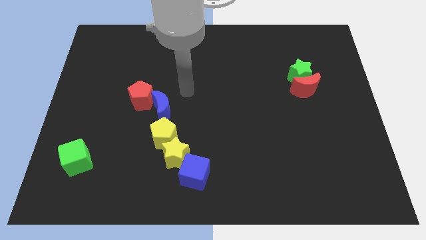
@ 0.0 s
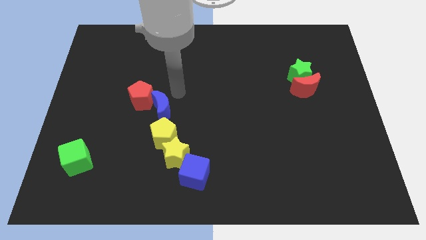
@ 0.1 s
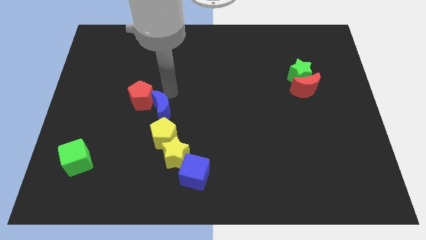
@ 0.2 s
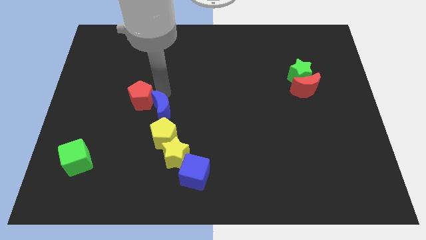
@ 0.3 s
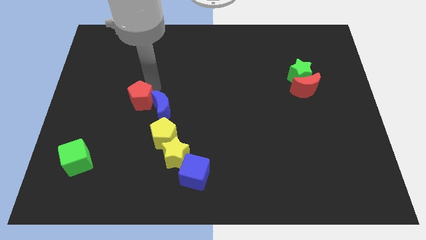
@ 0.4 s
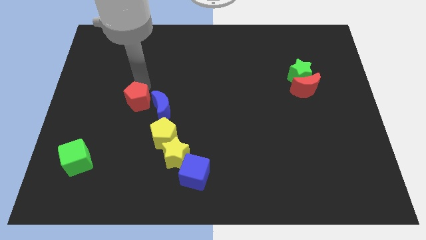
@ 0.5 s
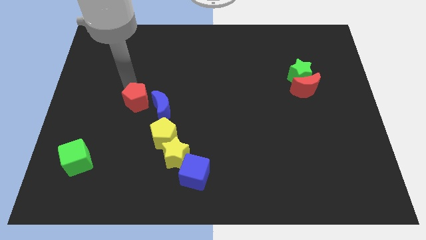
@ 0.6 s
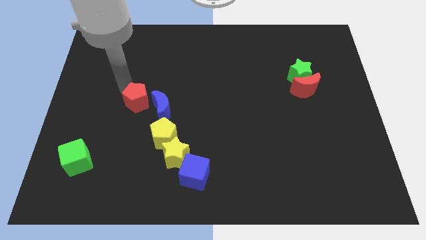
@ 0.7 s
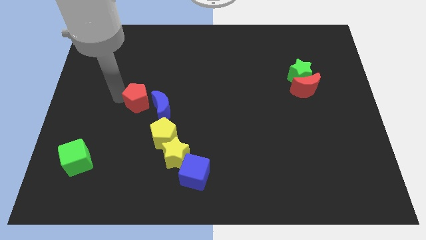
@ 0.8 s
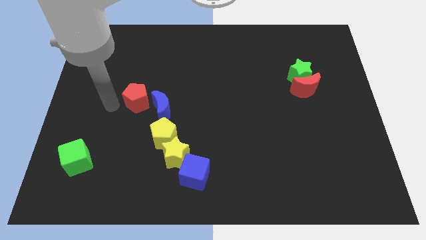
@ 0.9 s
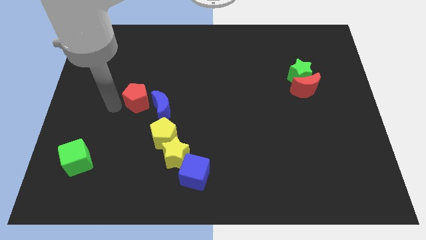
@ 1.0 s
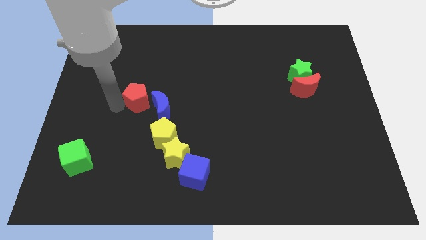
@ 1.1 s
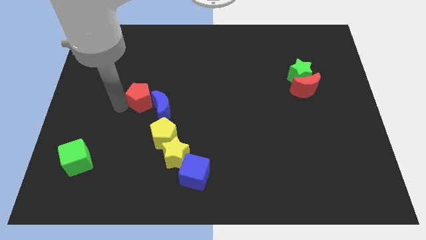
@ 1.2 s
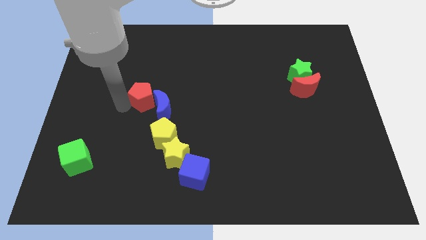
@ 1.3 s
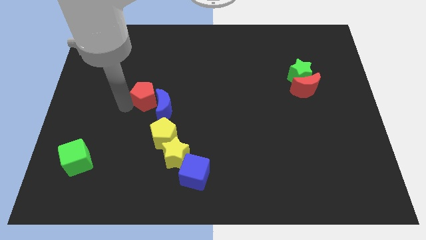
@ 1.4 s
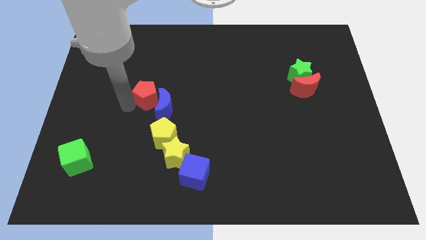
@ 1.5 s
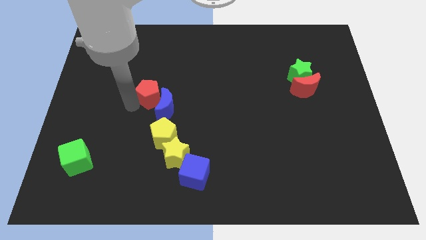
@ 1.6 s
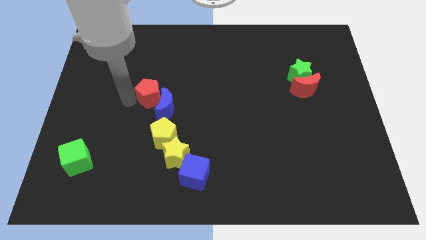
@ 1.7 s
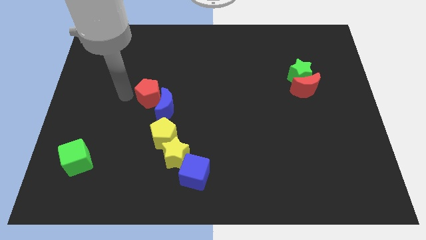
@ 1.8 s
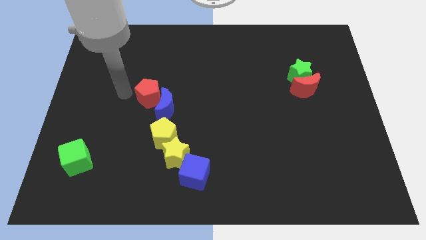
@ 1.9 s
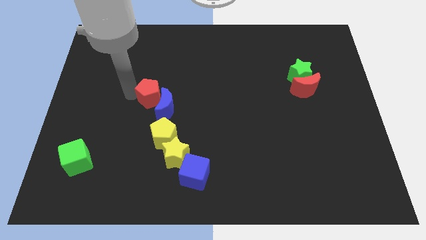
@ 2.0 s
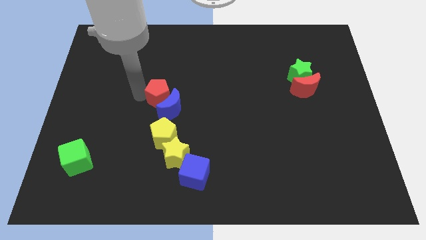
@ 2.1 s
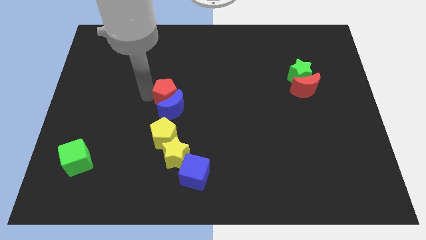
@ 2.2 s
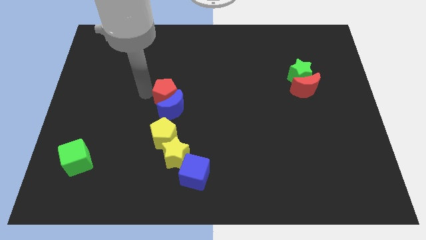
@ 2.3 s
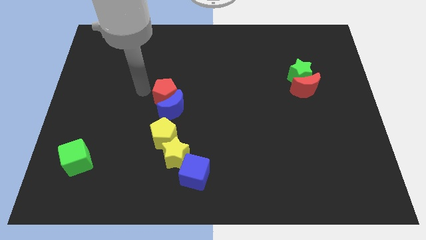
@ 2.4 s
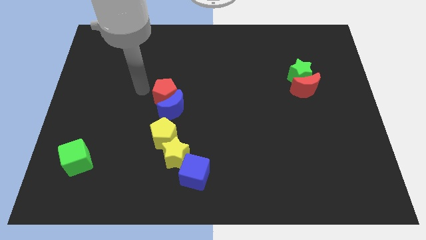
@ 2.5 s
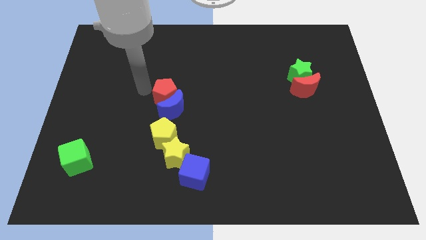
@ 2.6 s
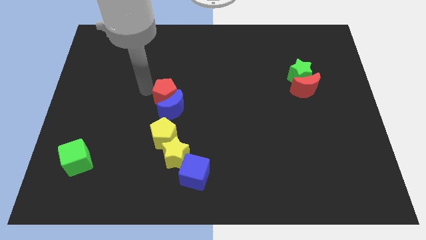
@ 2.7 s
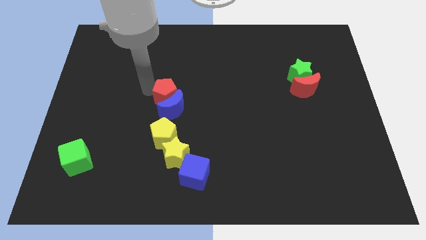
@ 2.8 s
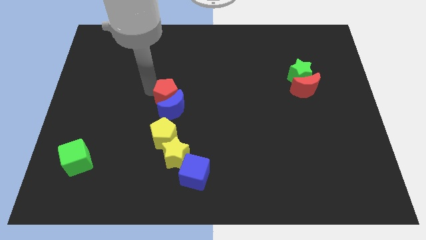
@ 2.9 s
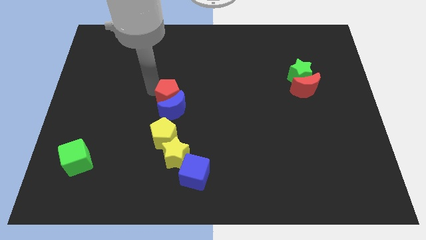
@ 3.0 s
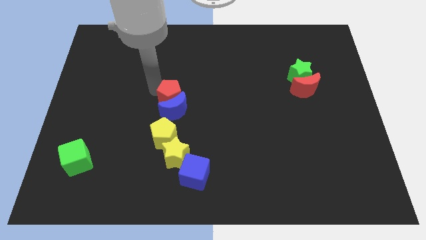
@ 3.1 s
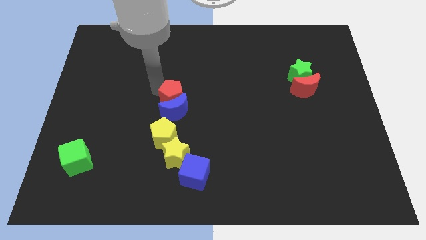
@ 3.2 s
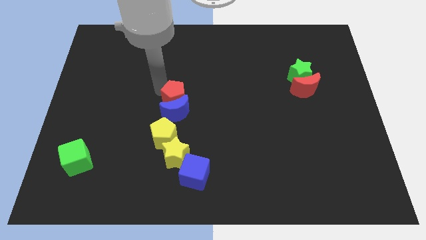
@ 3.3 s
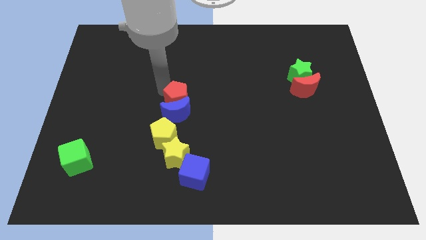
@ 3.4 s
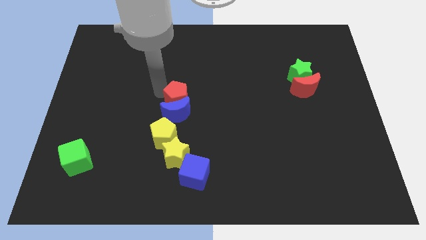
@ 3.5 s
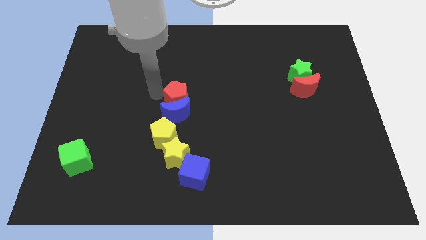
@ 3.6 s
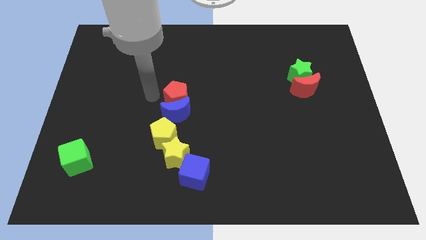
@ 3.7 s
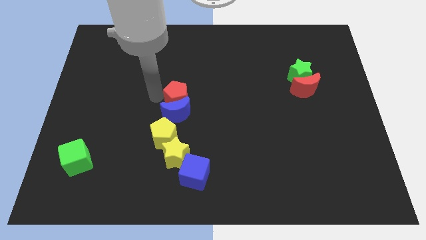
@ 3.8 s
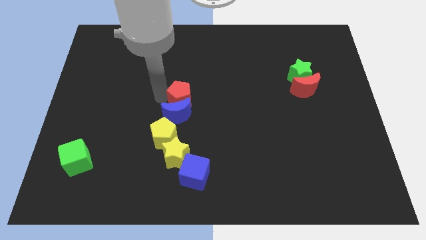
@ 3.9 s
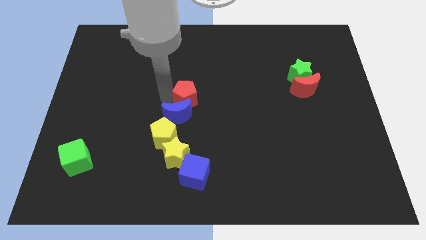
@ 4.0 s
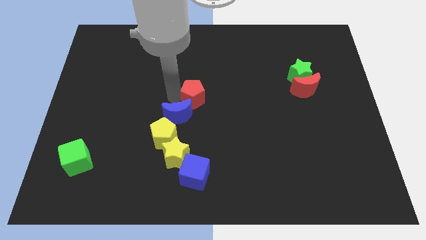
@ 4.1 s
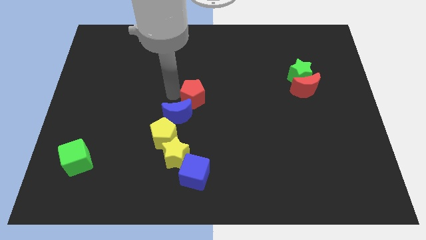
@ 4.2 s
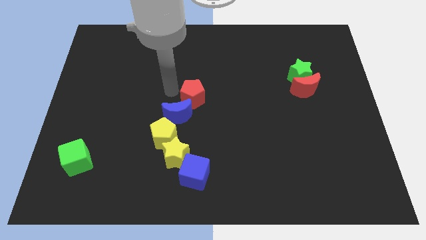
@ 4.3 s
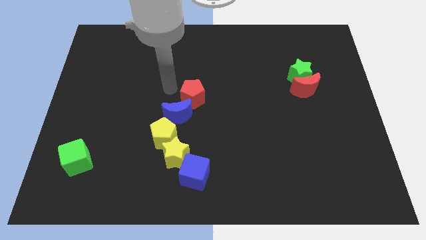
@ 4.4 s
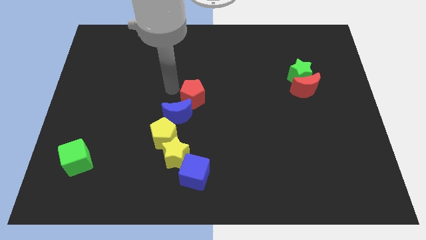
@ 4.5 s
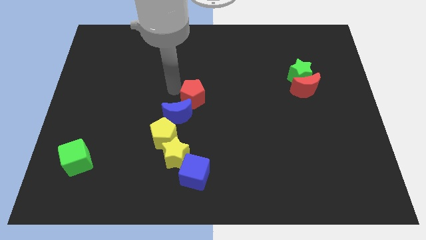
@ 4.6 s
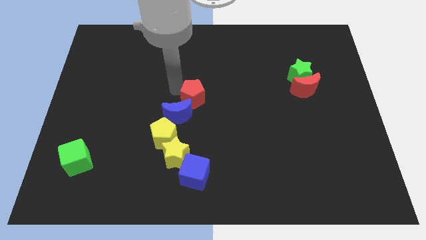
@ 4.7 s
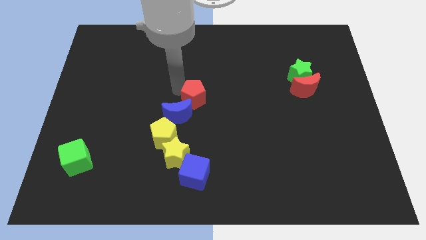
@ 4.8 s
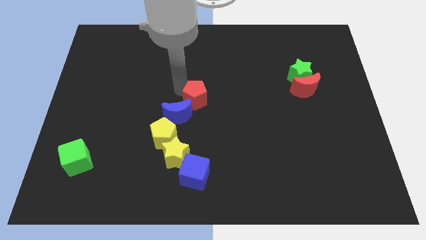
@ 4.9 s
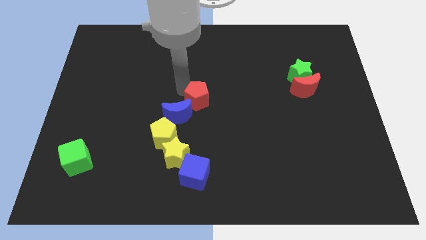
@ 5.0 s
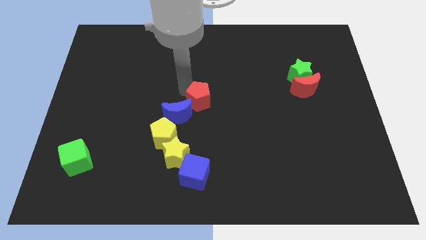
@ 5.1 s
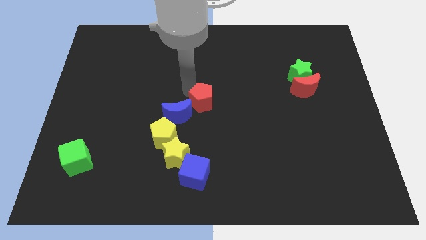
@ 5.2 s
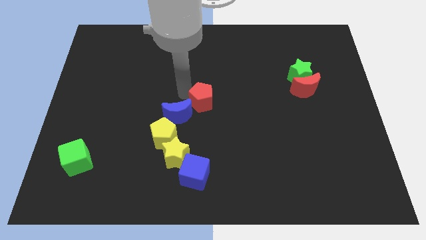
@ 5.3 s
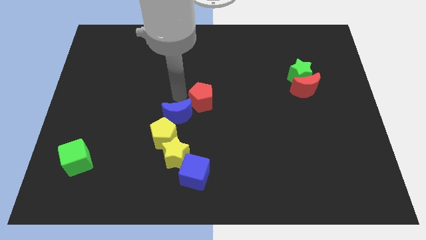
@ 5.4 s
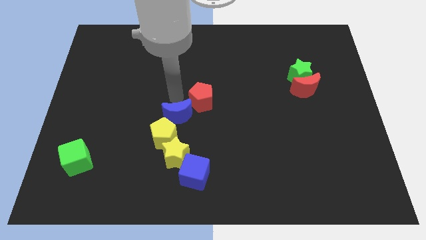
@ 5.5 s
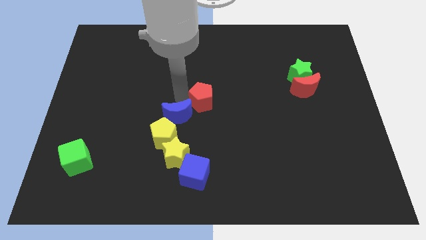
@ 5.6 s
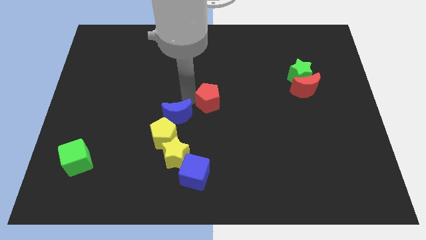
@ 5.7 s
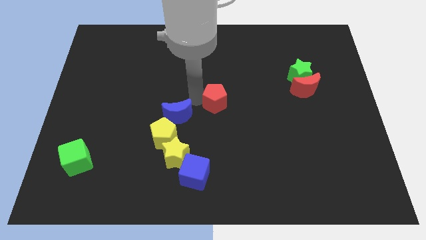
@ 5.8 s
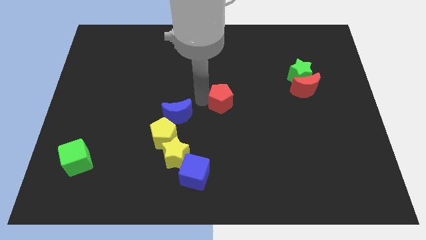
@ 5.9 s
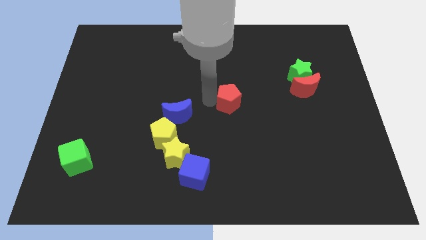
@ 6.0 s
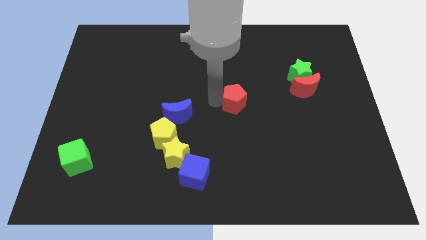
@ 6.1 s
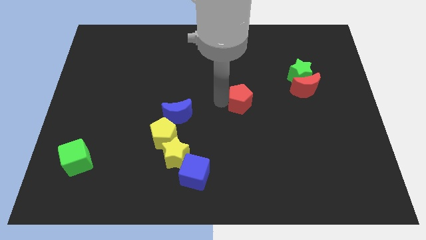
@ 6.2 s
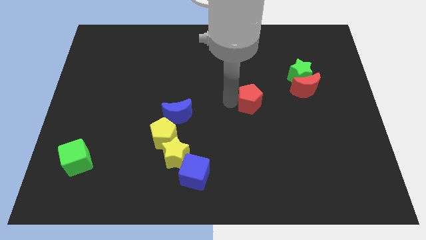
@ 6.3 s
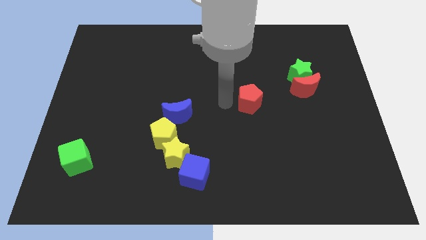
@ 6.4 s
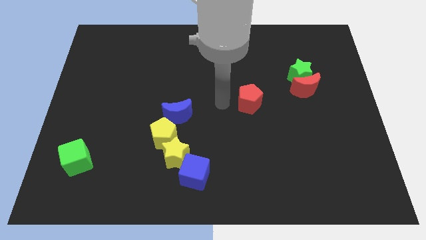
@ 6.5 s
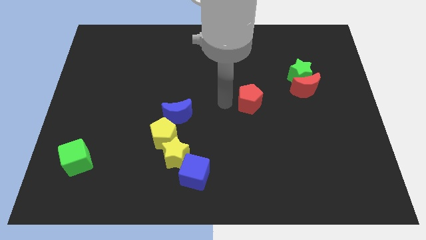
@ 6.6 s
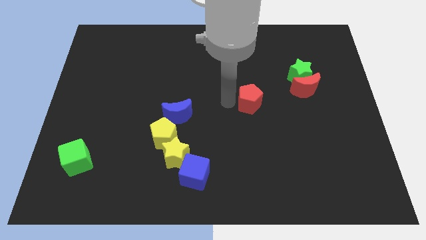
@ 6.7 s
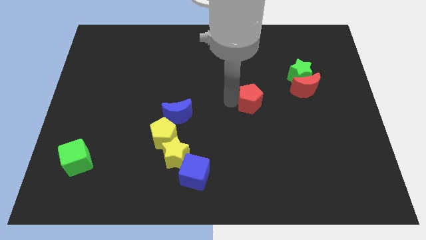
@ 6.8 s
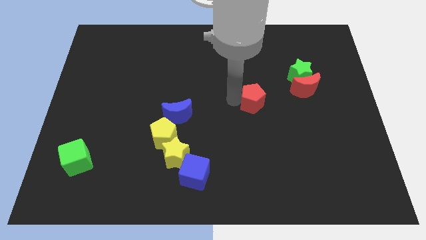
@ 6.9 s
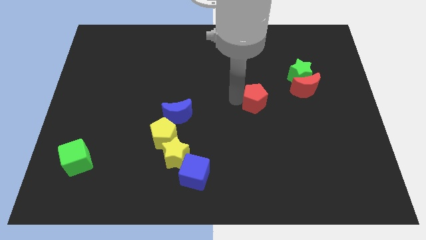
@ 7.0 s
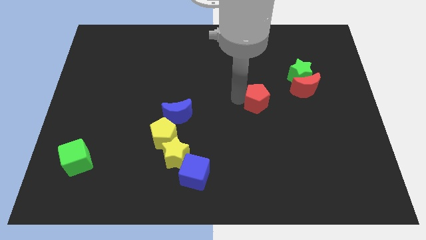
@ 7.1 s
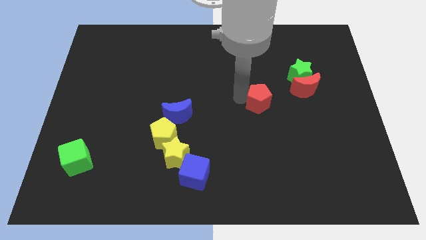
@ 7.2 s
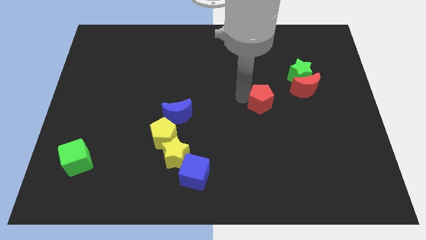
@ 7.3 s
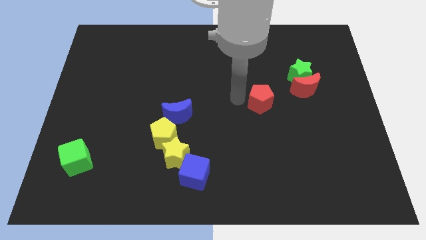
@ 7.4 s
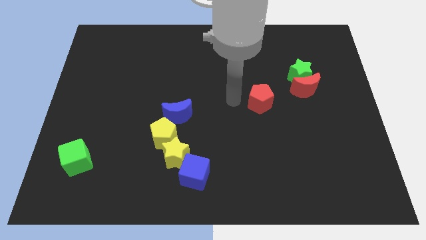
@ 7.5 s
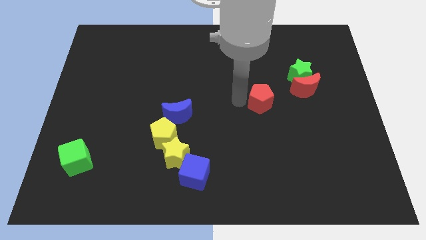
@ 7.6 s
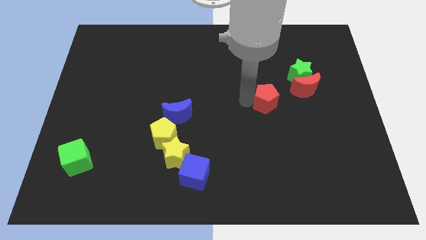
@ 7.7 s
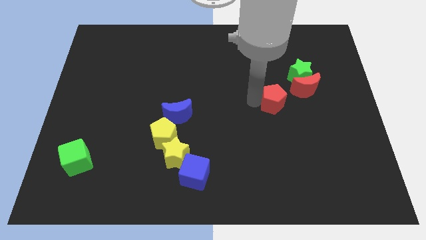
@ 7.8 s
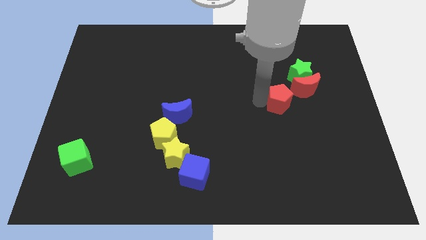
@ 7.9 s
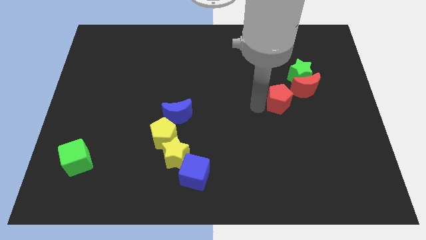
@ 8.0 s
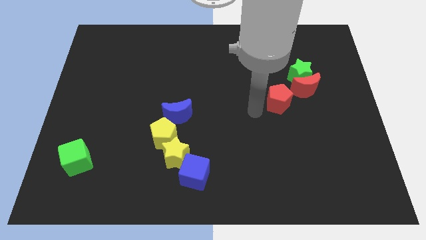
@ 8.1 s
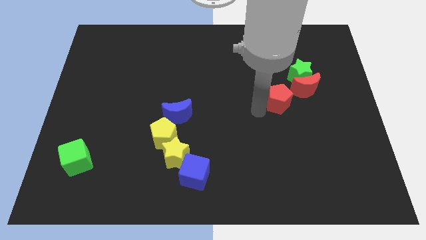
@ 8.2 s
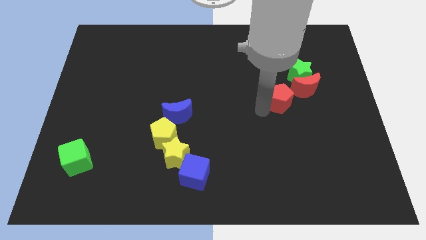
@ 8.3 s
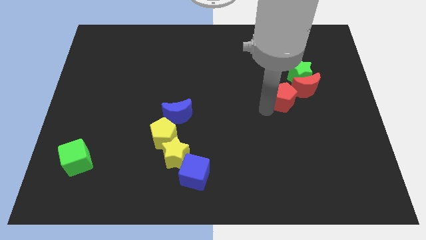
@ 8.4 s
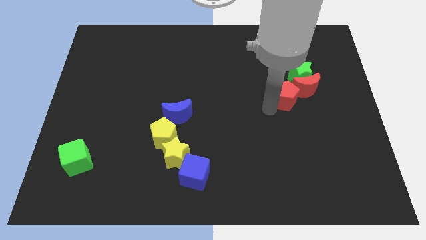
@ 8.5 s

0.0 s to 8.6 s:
push the red pentagon towards the red moon
